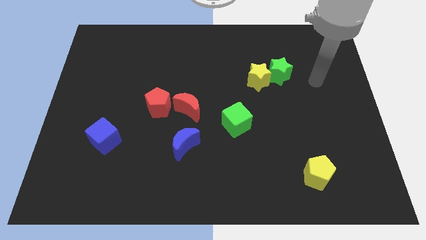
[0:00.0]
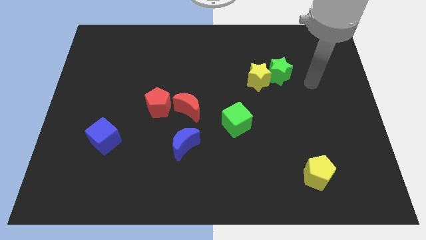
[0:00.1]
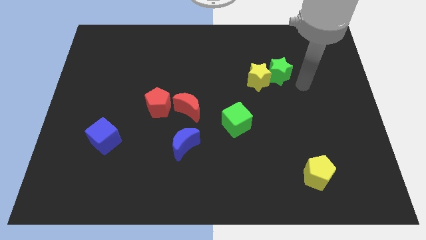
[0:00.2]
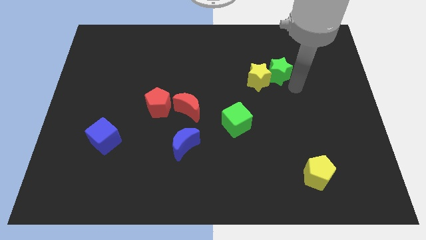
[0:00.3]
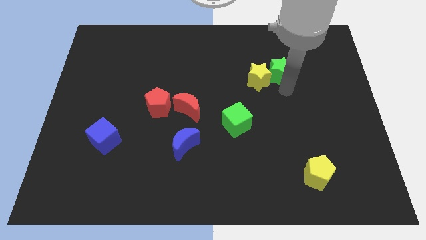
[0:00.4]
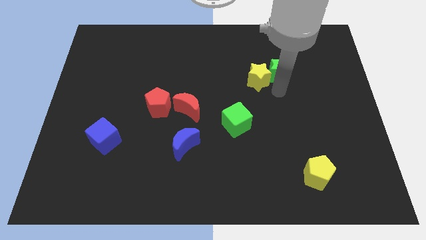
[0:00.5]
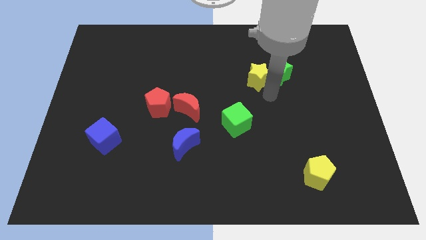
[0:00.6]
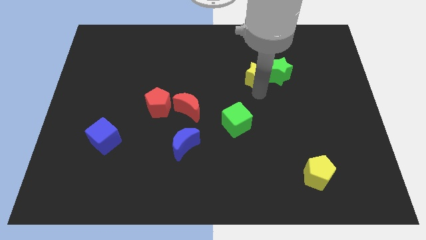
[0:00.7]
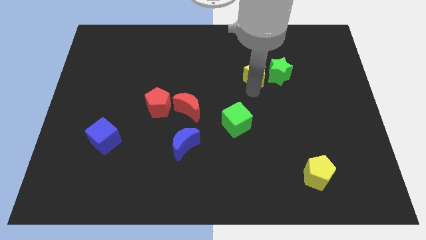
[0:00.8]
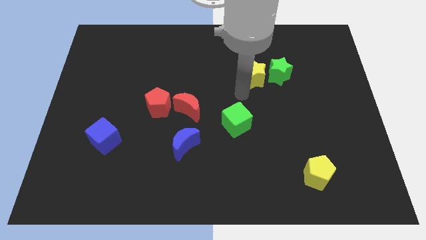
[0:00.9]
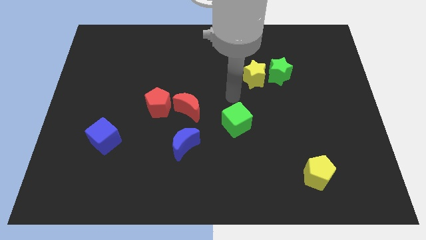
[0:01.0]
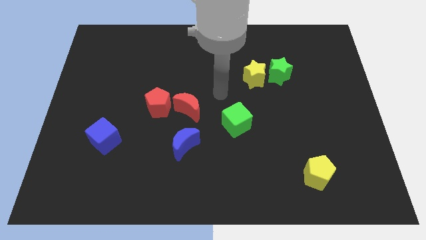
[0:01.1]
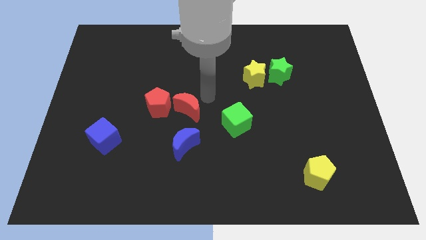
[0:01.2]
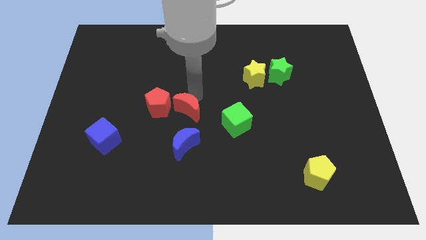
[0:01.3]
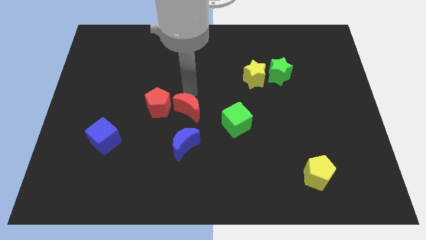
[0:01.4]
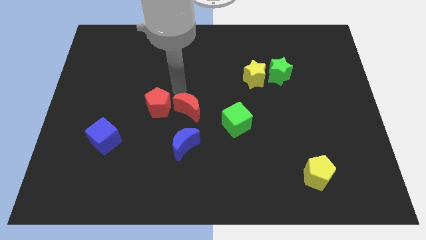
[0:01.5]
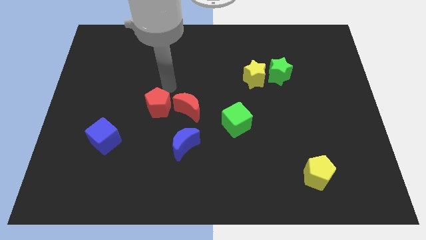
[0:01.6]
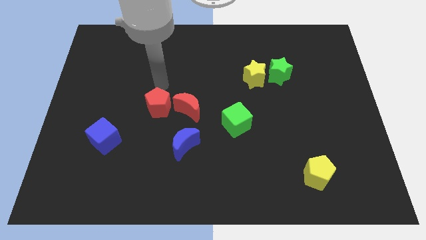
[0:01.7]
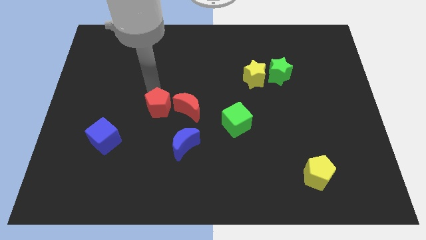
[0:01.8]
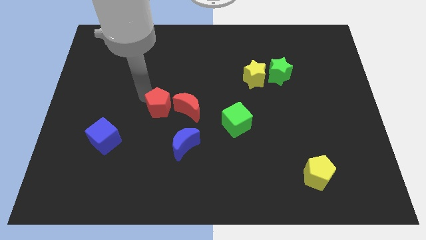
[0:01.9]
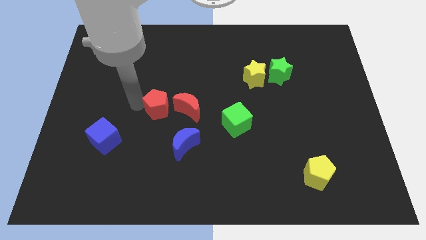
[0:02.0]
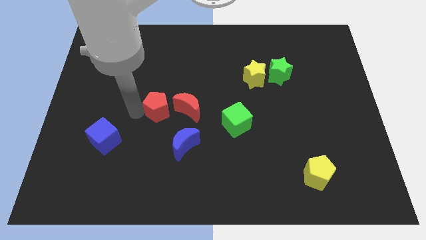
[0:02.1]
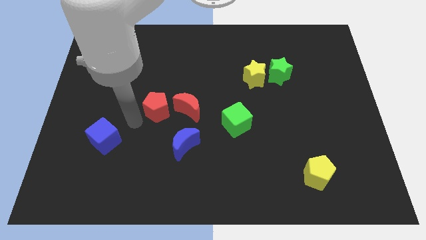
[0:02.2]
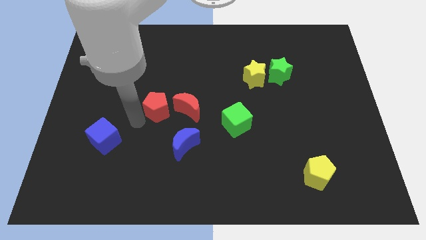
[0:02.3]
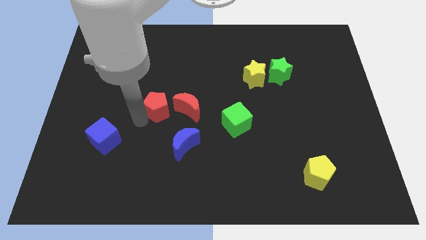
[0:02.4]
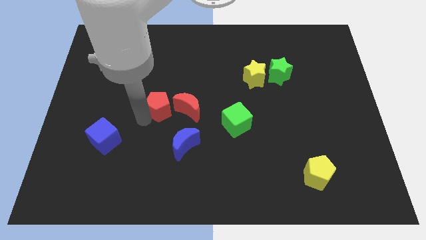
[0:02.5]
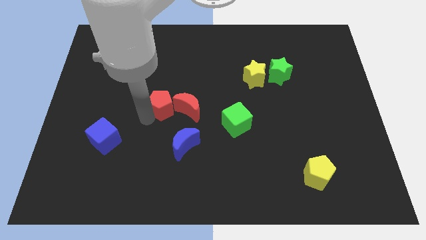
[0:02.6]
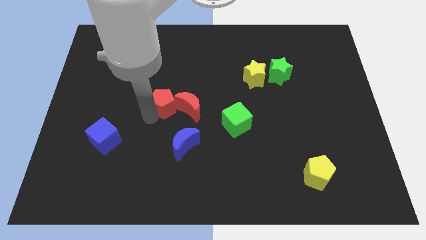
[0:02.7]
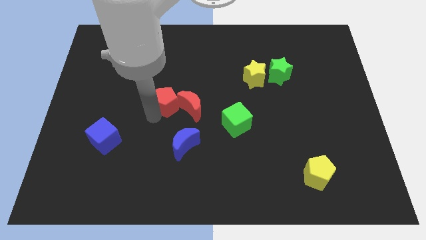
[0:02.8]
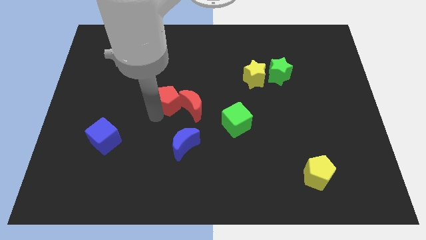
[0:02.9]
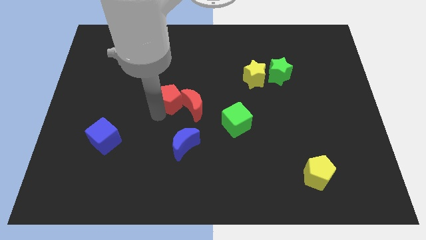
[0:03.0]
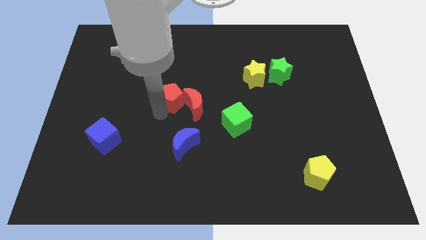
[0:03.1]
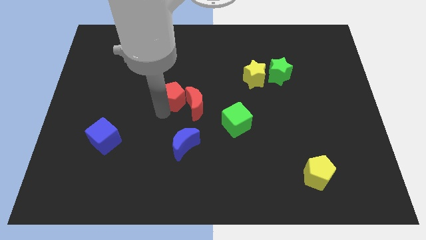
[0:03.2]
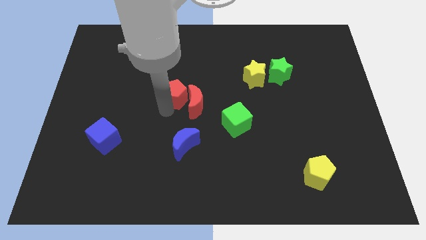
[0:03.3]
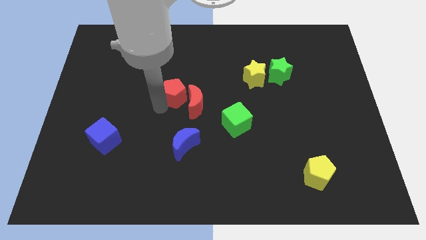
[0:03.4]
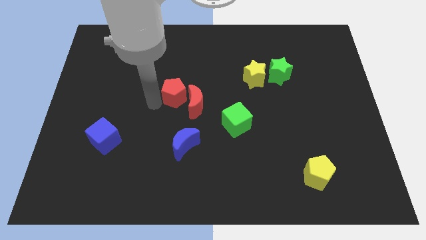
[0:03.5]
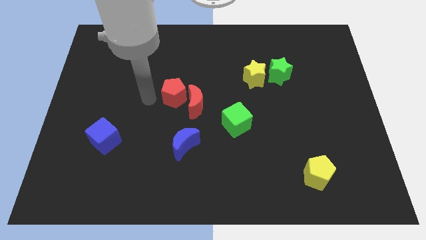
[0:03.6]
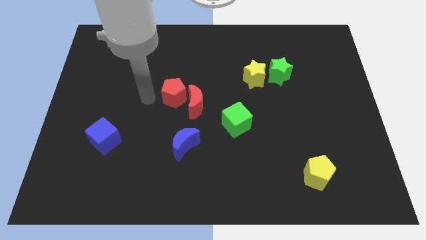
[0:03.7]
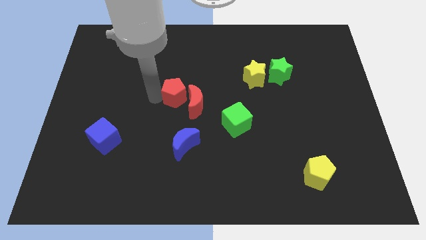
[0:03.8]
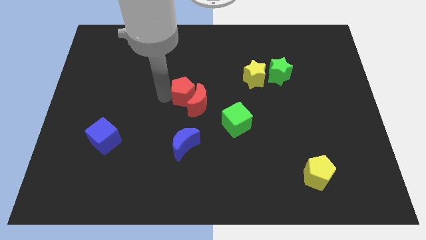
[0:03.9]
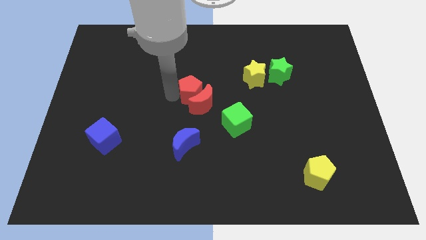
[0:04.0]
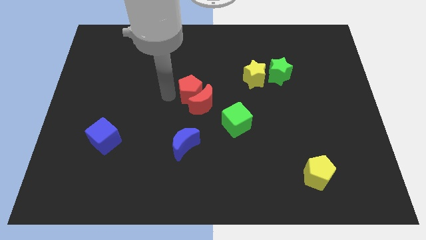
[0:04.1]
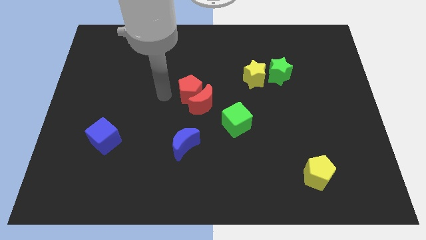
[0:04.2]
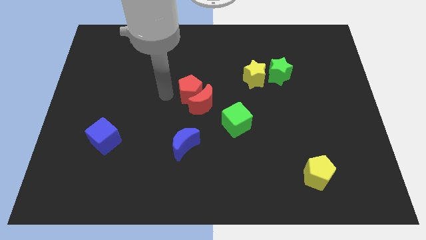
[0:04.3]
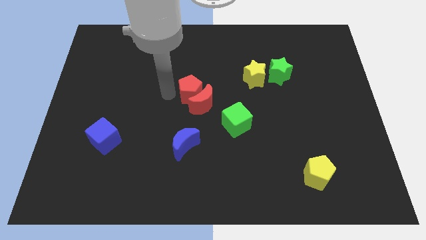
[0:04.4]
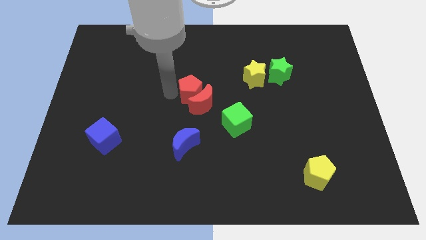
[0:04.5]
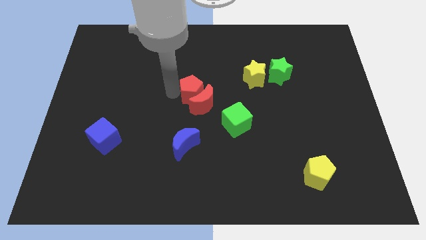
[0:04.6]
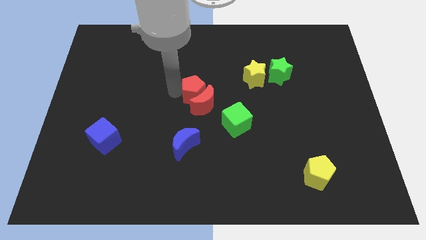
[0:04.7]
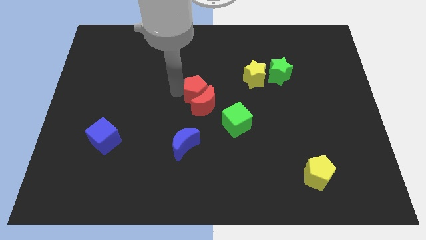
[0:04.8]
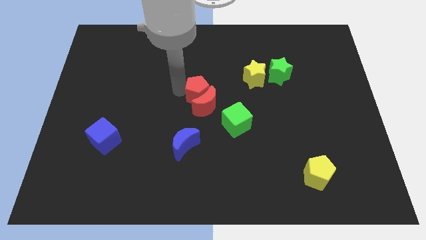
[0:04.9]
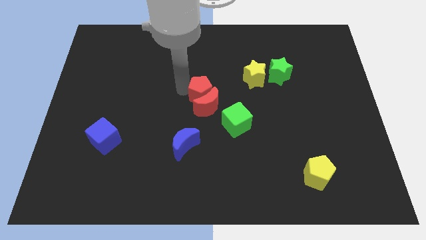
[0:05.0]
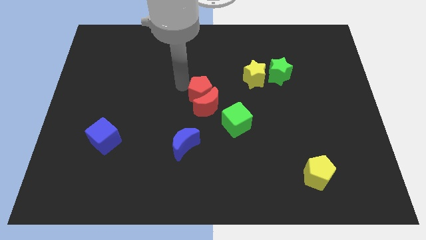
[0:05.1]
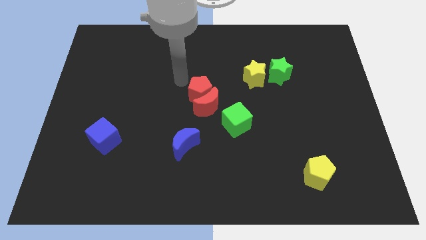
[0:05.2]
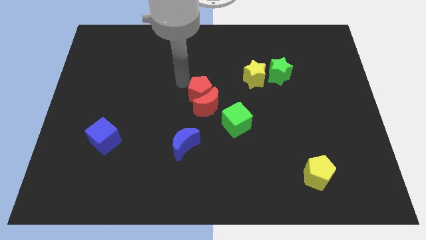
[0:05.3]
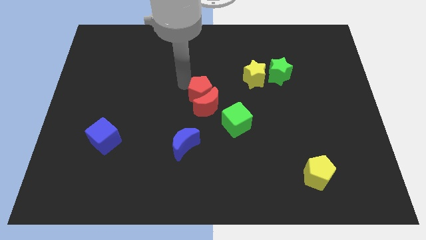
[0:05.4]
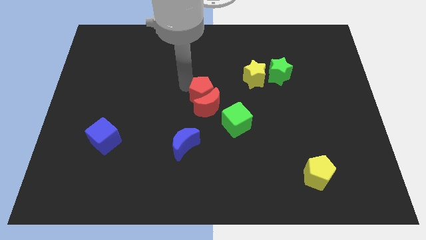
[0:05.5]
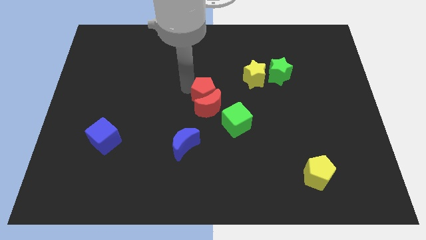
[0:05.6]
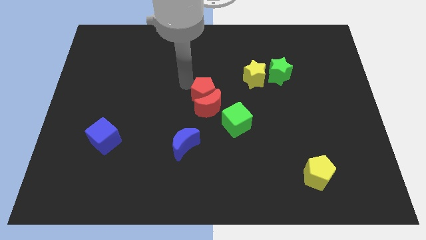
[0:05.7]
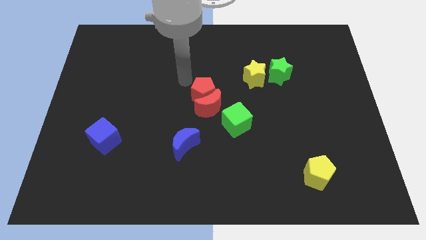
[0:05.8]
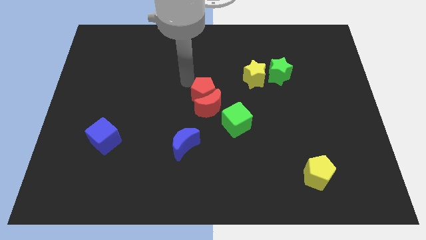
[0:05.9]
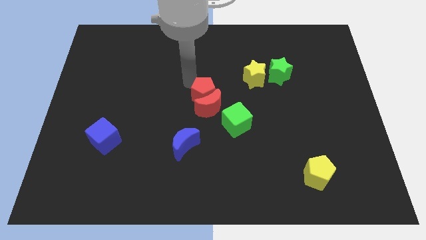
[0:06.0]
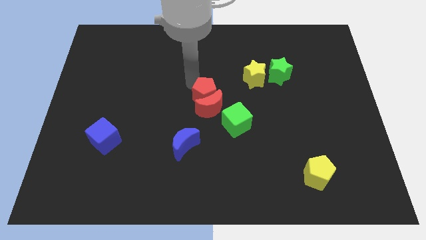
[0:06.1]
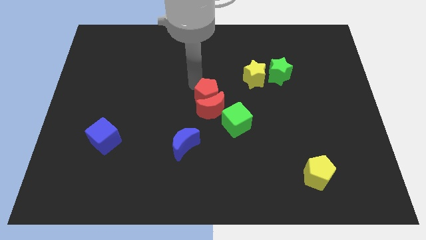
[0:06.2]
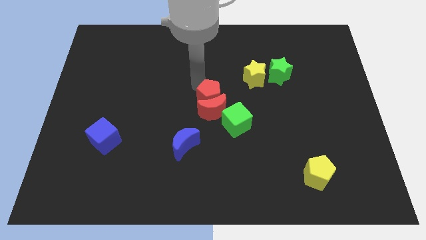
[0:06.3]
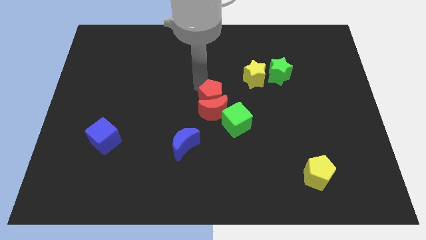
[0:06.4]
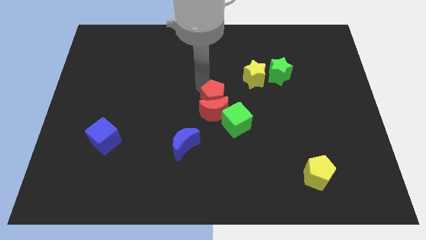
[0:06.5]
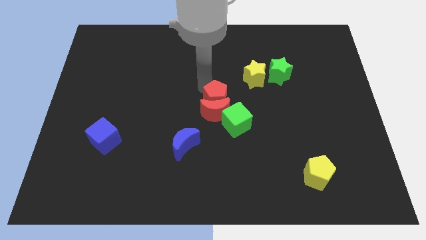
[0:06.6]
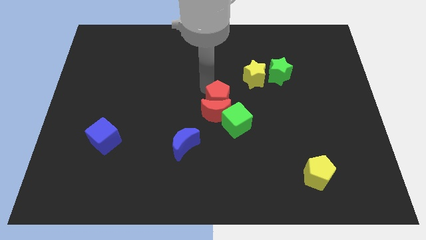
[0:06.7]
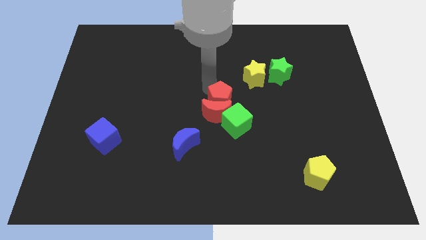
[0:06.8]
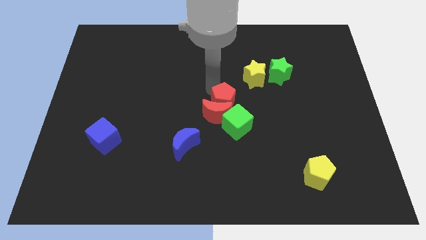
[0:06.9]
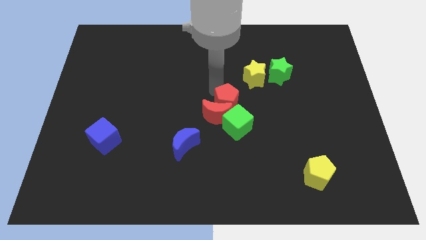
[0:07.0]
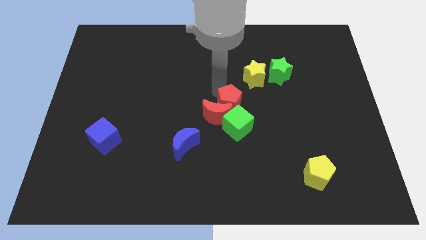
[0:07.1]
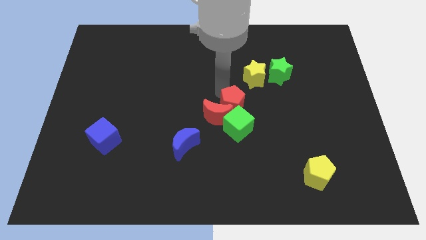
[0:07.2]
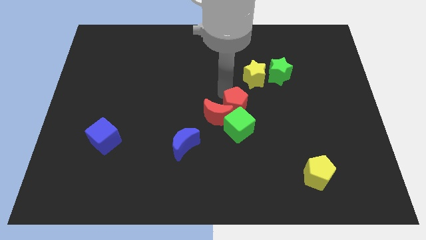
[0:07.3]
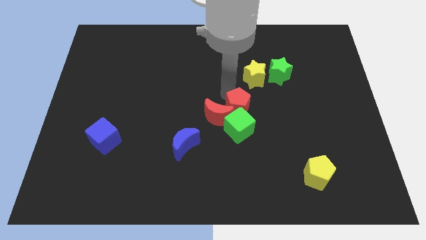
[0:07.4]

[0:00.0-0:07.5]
slide the red pentagon next to the green cube

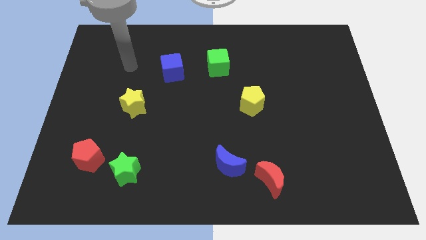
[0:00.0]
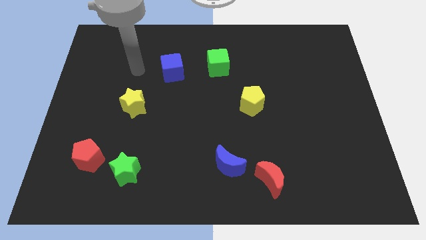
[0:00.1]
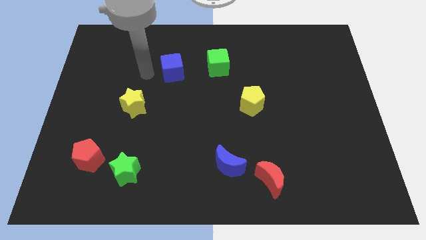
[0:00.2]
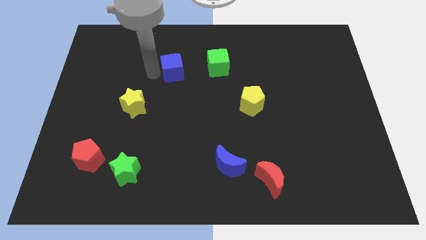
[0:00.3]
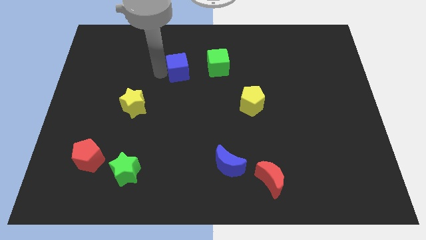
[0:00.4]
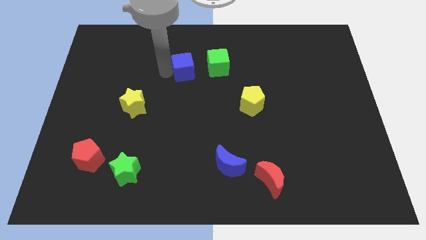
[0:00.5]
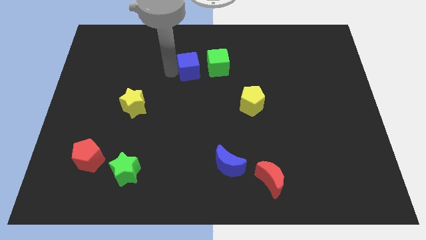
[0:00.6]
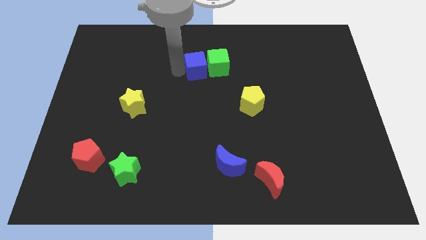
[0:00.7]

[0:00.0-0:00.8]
move the blue cube to the green cube
